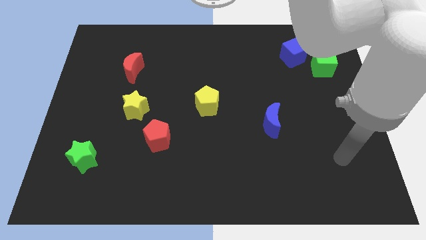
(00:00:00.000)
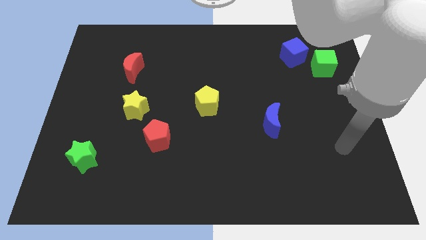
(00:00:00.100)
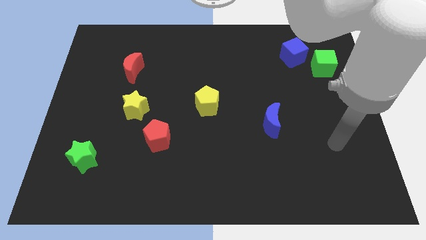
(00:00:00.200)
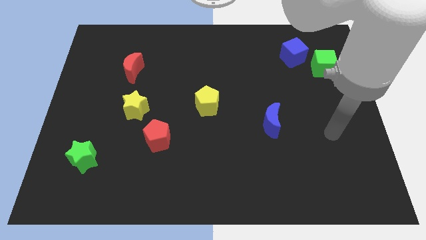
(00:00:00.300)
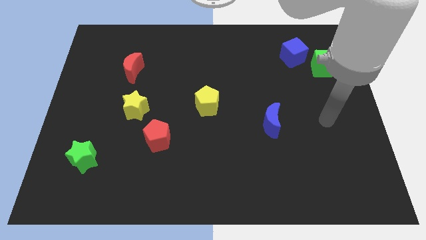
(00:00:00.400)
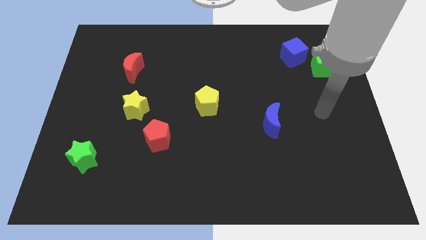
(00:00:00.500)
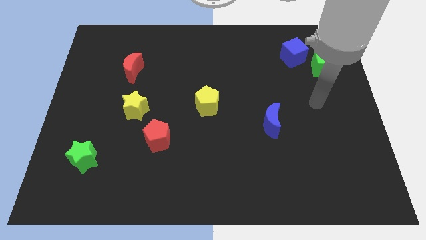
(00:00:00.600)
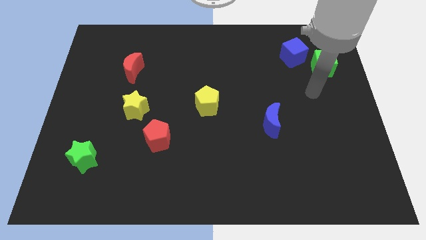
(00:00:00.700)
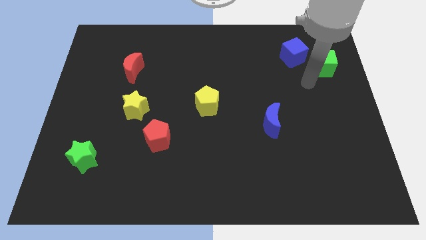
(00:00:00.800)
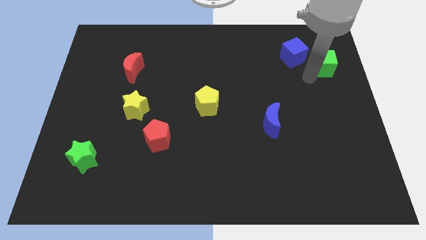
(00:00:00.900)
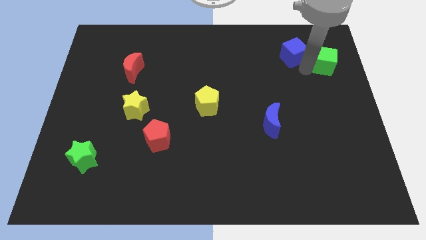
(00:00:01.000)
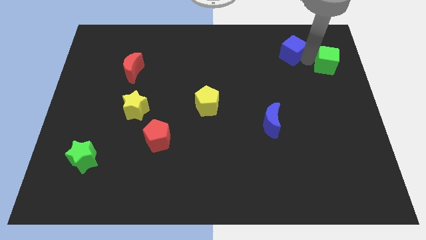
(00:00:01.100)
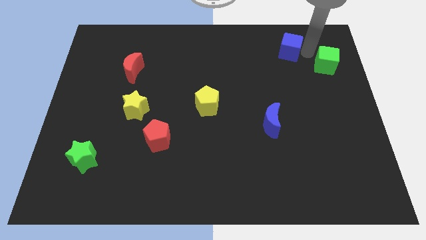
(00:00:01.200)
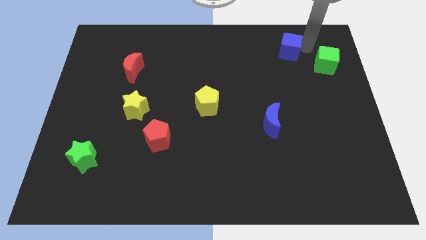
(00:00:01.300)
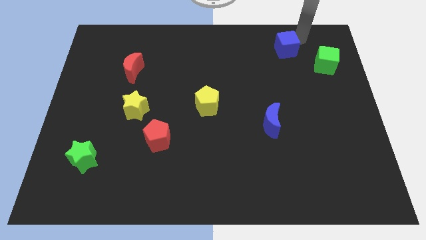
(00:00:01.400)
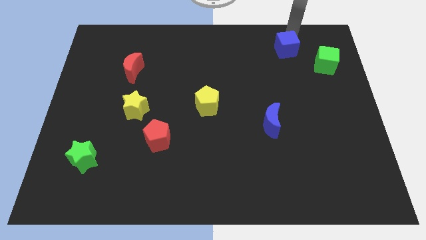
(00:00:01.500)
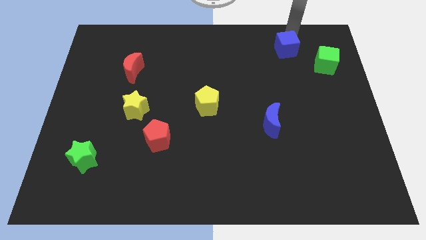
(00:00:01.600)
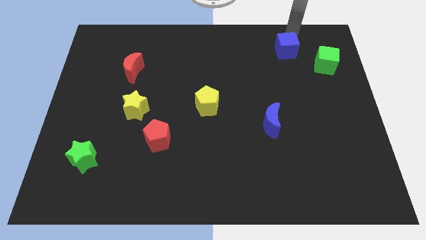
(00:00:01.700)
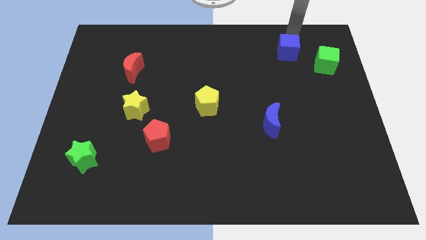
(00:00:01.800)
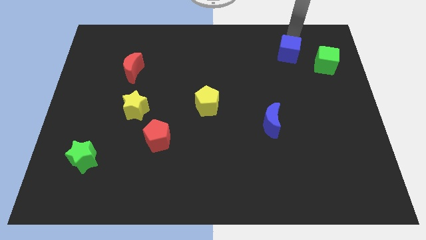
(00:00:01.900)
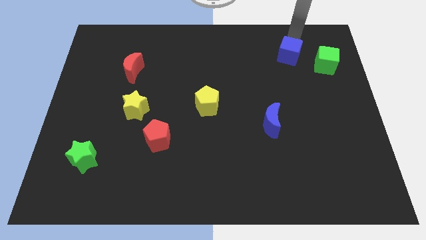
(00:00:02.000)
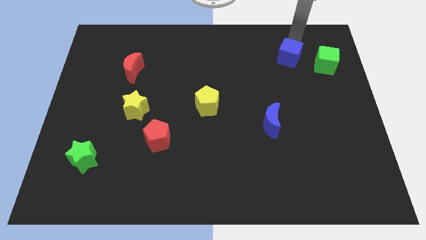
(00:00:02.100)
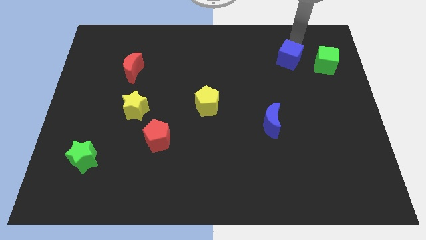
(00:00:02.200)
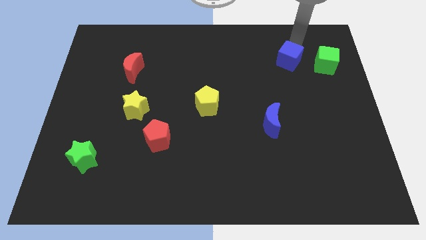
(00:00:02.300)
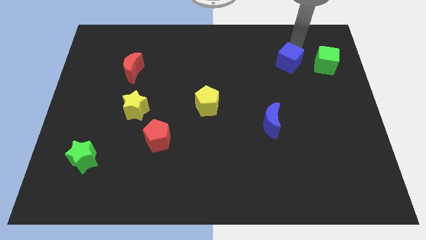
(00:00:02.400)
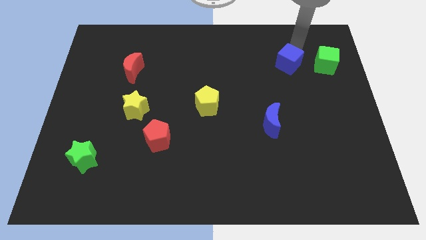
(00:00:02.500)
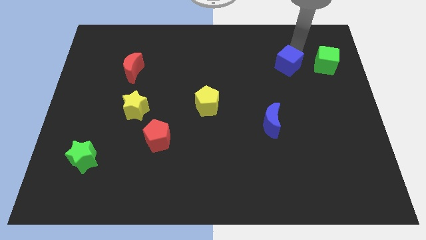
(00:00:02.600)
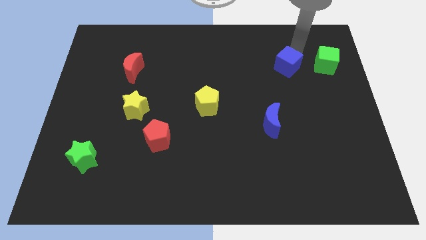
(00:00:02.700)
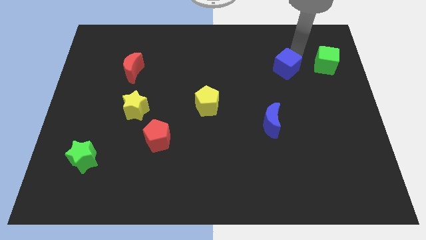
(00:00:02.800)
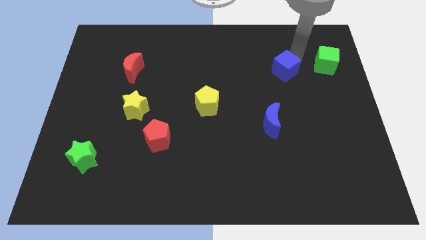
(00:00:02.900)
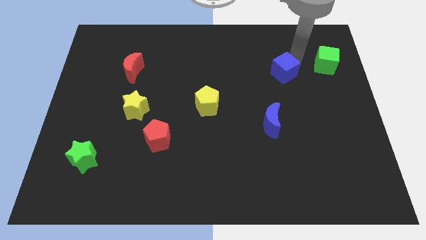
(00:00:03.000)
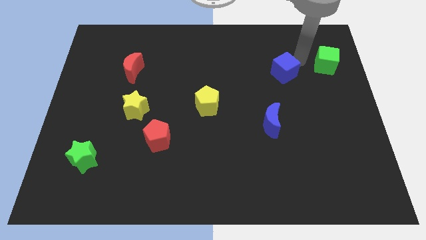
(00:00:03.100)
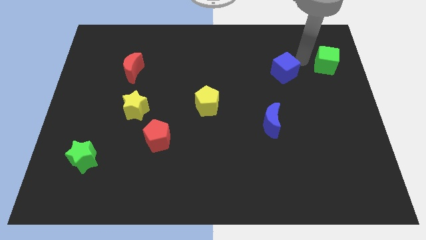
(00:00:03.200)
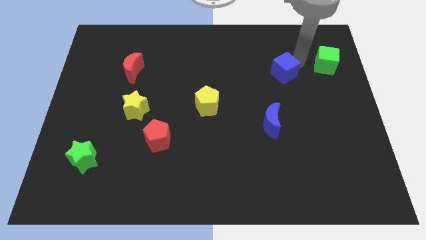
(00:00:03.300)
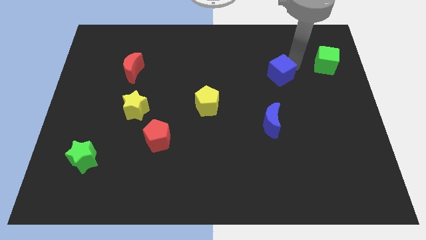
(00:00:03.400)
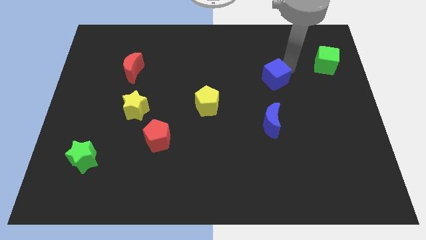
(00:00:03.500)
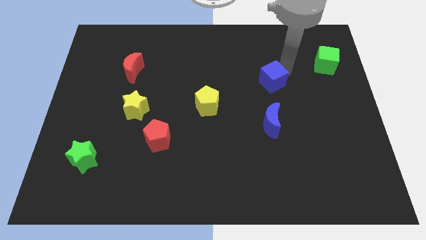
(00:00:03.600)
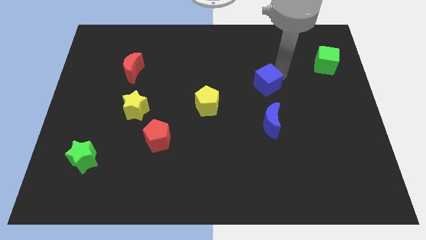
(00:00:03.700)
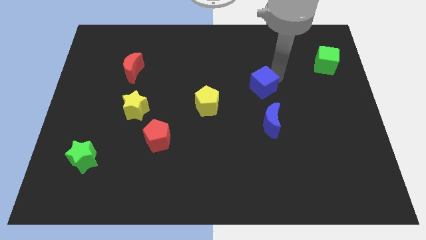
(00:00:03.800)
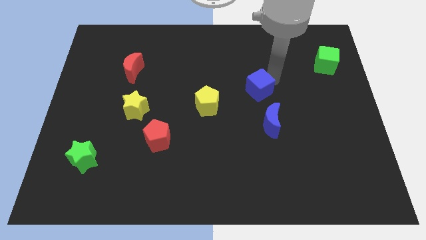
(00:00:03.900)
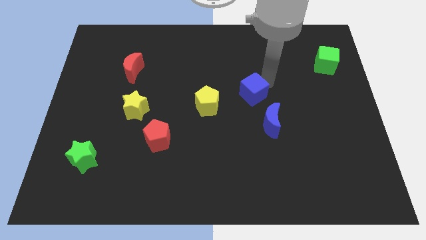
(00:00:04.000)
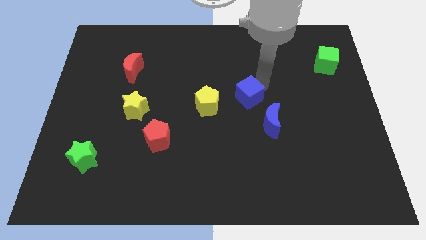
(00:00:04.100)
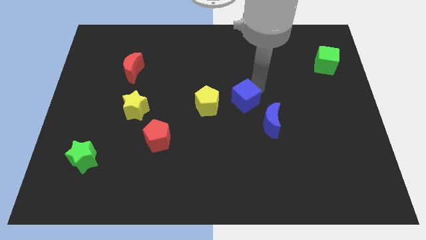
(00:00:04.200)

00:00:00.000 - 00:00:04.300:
move the blue cube diagonally down and to the left

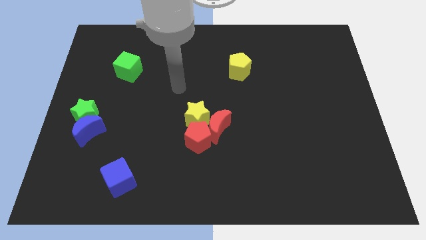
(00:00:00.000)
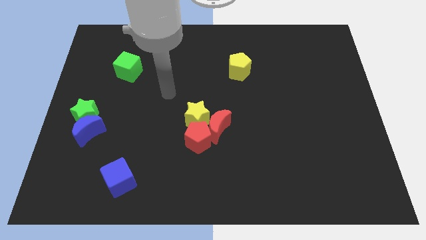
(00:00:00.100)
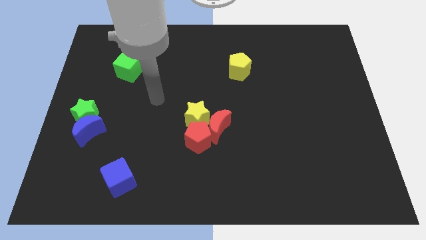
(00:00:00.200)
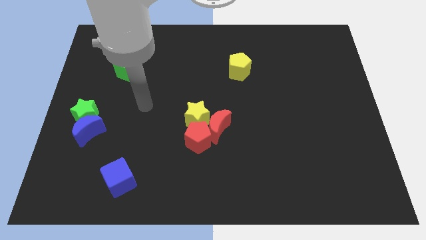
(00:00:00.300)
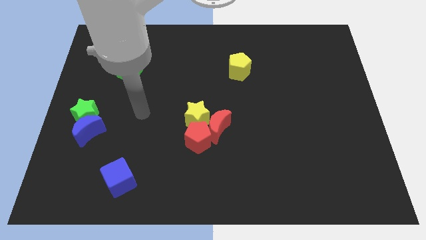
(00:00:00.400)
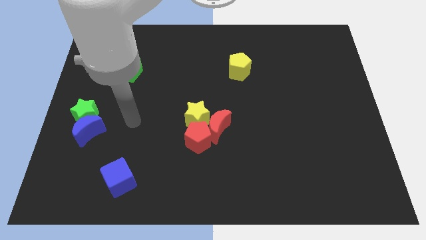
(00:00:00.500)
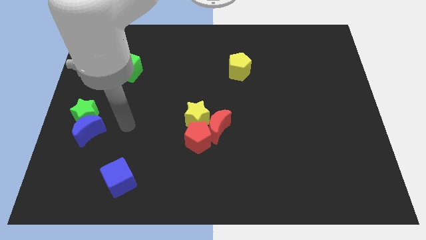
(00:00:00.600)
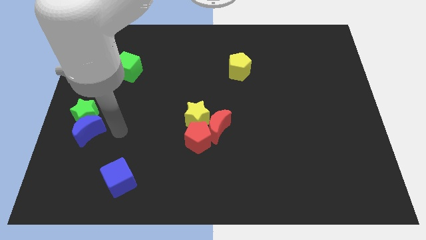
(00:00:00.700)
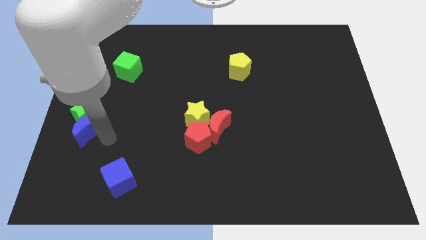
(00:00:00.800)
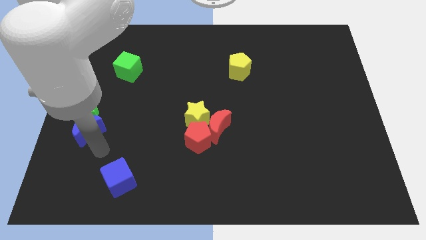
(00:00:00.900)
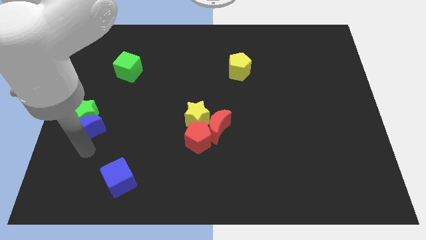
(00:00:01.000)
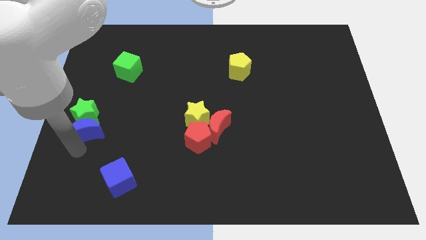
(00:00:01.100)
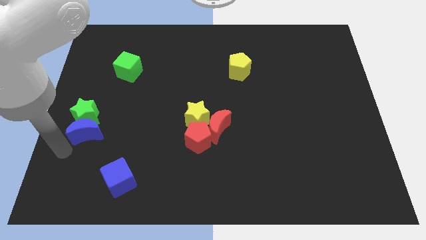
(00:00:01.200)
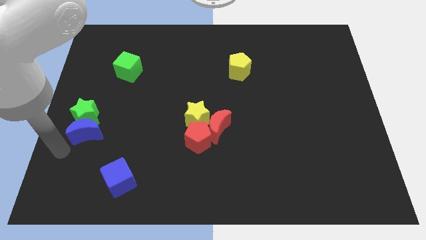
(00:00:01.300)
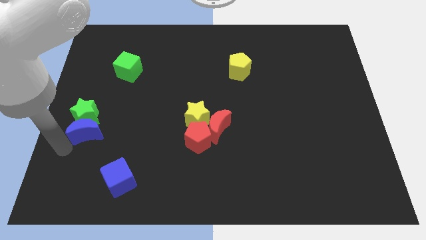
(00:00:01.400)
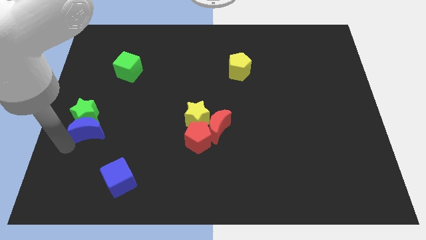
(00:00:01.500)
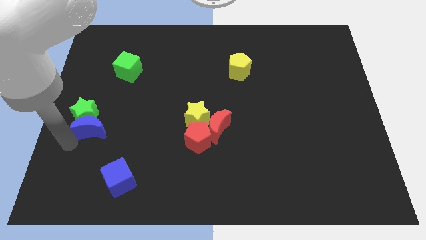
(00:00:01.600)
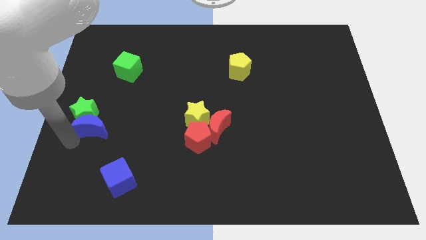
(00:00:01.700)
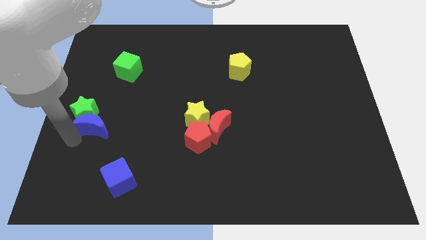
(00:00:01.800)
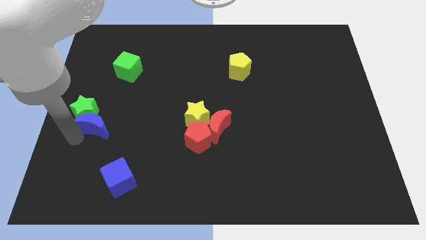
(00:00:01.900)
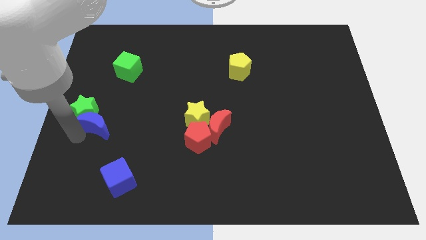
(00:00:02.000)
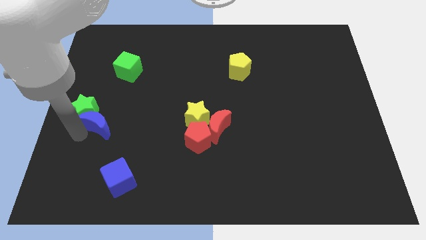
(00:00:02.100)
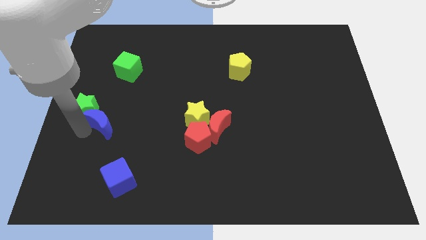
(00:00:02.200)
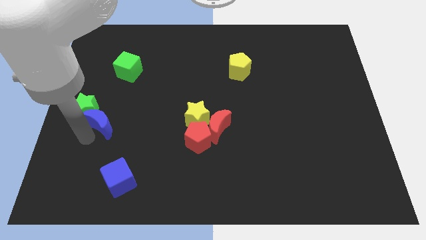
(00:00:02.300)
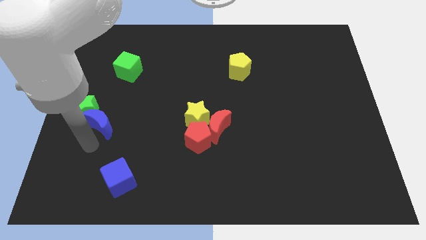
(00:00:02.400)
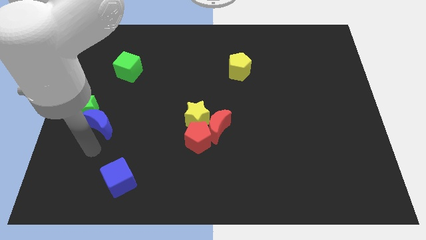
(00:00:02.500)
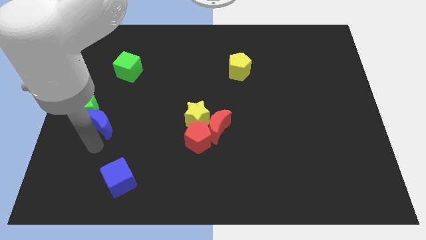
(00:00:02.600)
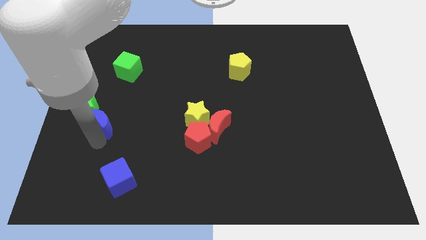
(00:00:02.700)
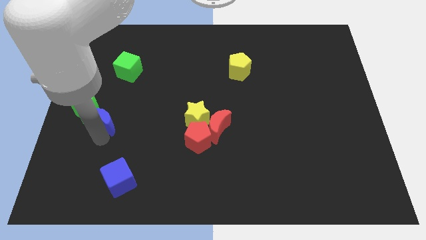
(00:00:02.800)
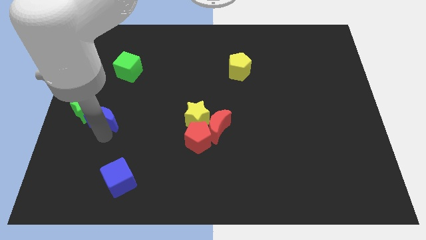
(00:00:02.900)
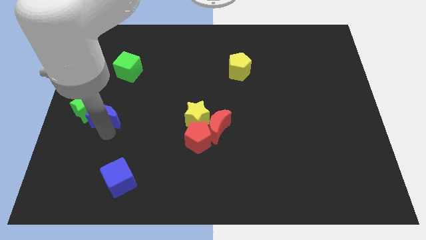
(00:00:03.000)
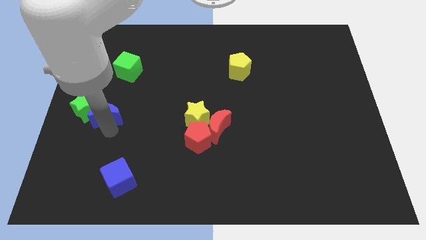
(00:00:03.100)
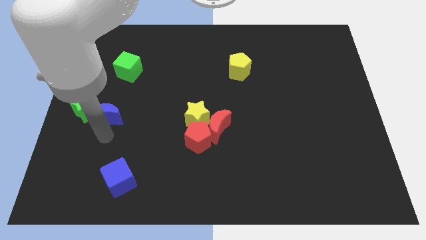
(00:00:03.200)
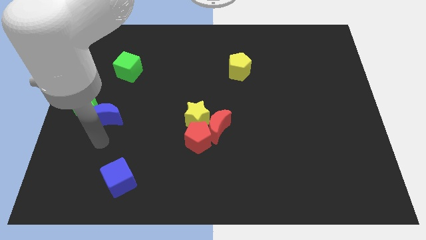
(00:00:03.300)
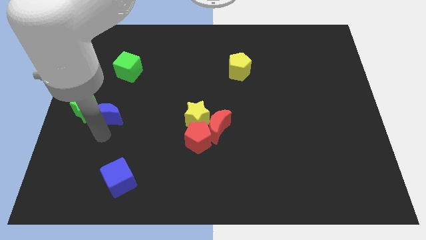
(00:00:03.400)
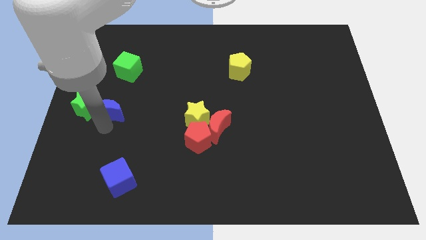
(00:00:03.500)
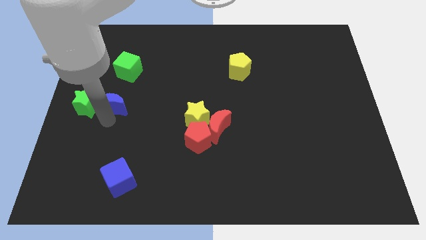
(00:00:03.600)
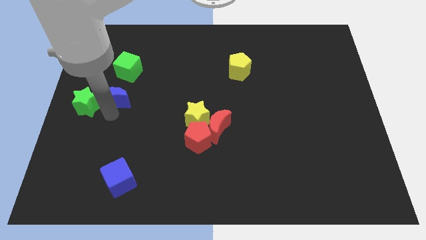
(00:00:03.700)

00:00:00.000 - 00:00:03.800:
slide the blue moon a bit up
